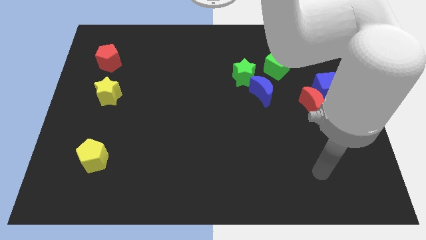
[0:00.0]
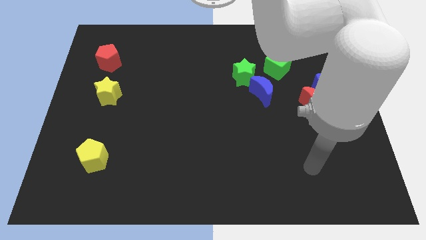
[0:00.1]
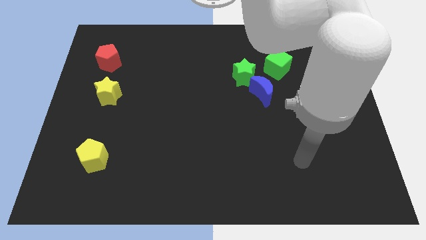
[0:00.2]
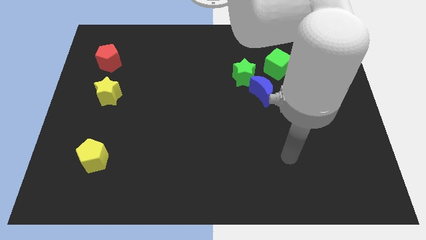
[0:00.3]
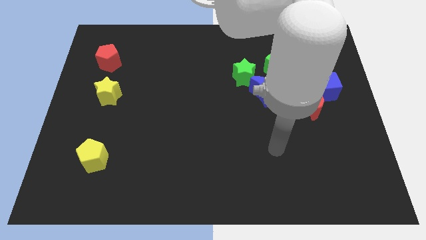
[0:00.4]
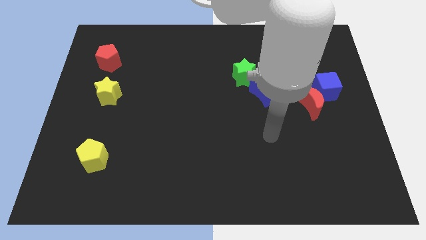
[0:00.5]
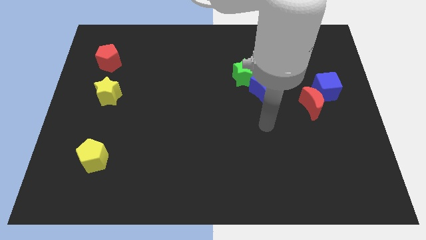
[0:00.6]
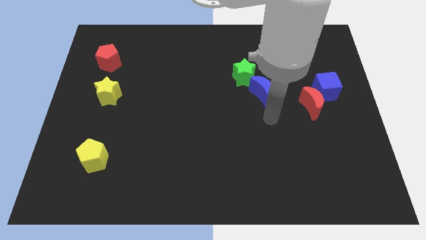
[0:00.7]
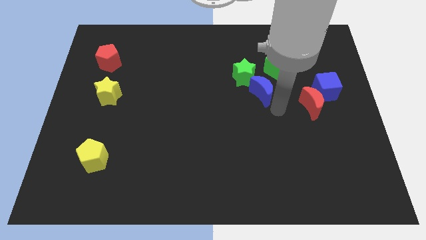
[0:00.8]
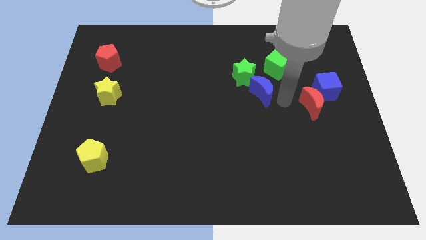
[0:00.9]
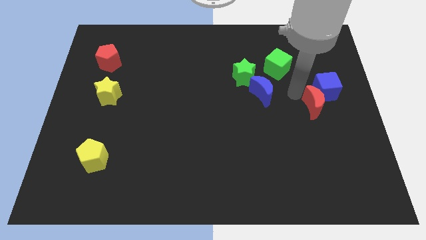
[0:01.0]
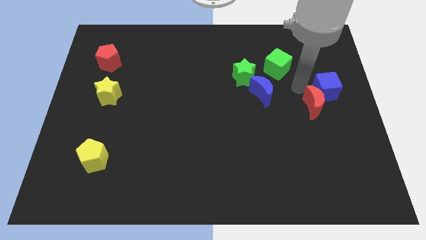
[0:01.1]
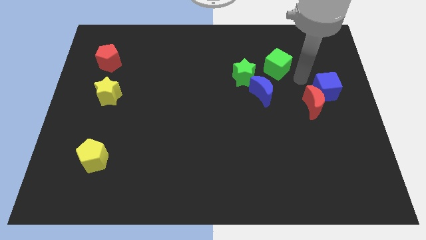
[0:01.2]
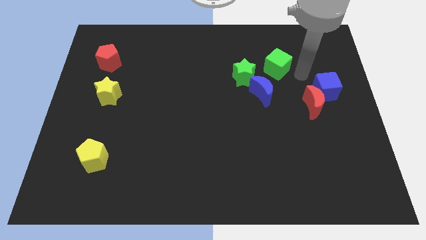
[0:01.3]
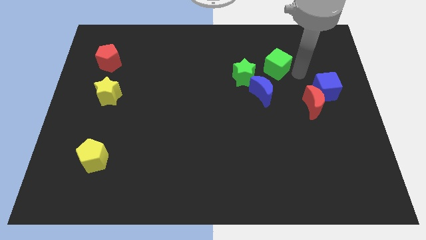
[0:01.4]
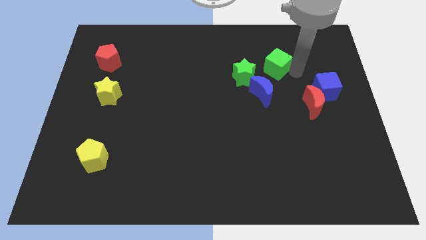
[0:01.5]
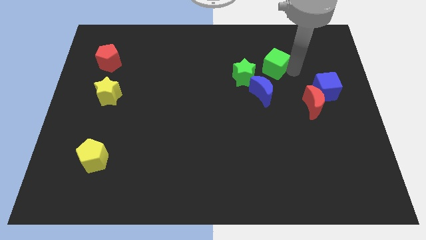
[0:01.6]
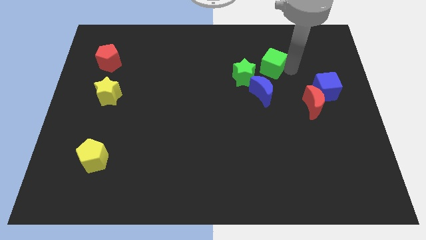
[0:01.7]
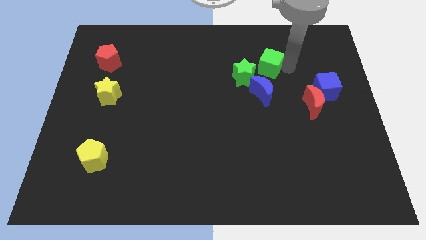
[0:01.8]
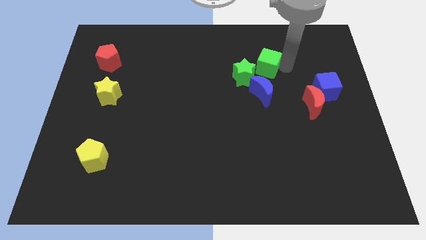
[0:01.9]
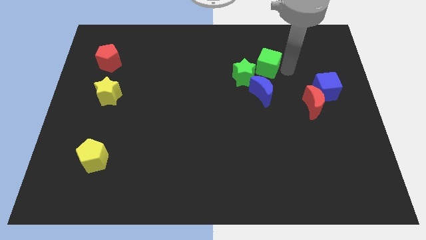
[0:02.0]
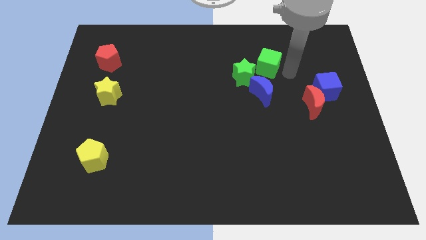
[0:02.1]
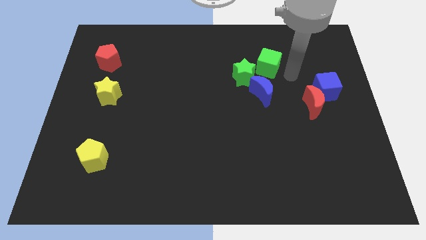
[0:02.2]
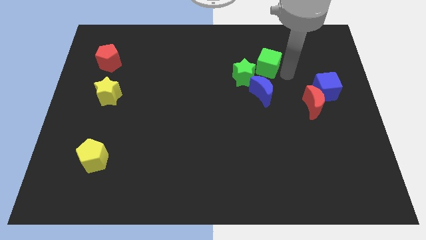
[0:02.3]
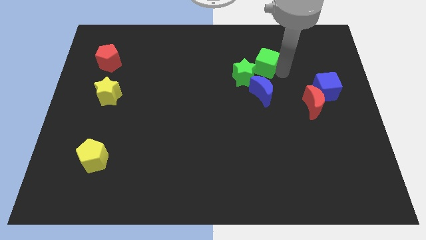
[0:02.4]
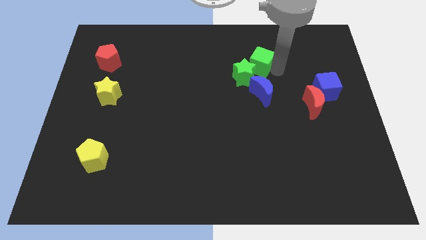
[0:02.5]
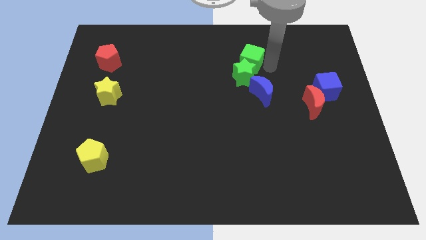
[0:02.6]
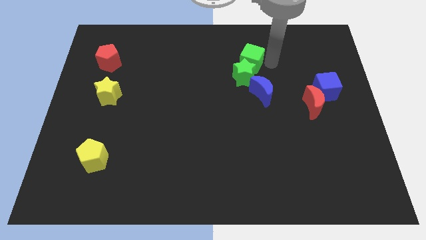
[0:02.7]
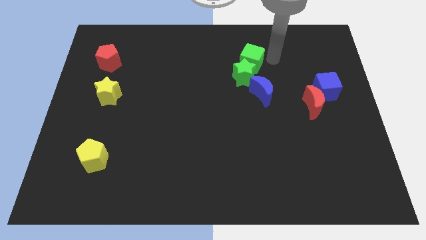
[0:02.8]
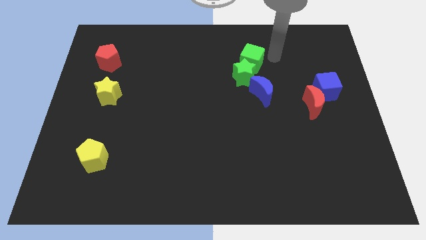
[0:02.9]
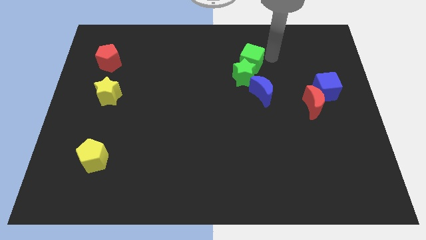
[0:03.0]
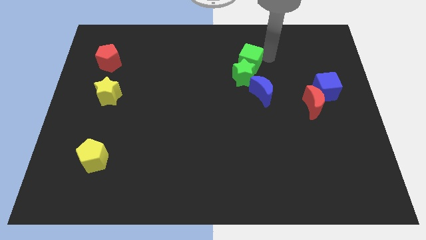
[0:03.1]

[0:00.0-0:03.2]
move the green cube a little to the left

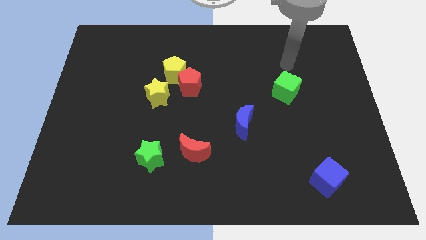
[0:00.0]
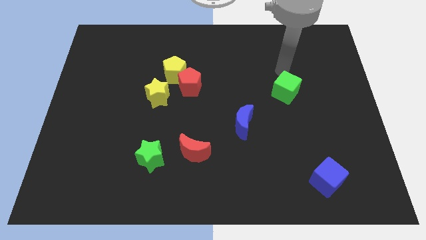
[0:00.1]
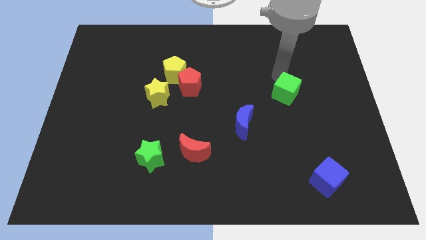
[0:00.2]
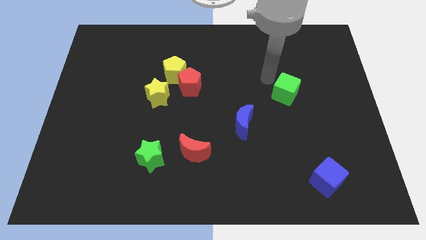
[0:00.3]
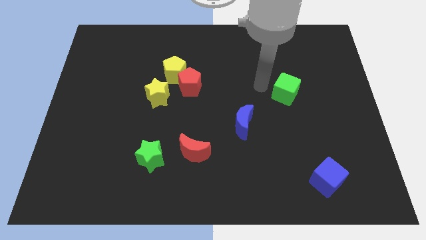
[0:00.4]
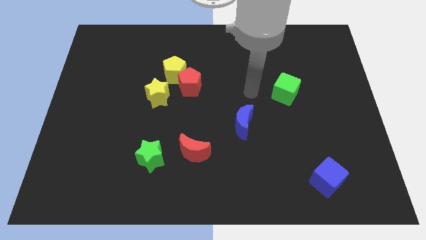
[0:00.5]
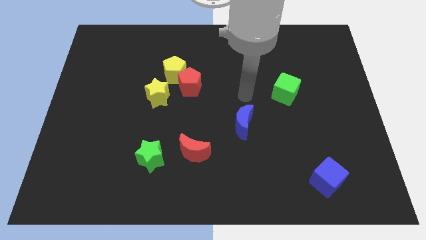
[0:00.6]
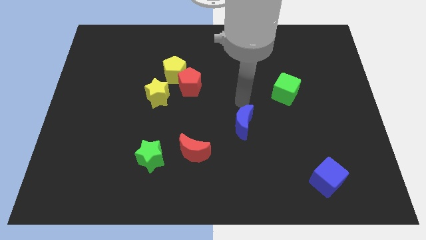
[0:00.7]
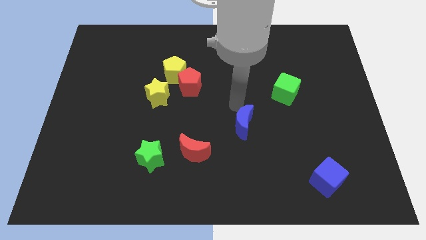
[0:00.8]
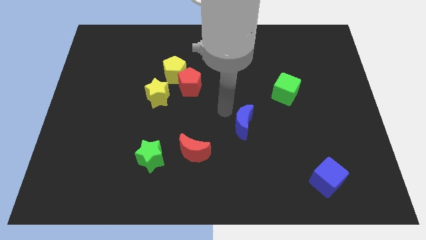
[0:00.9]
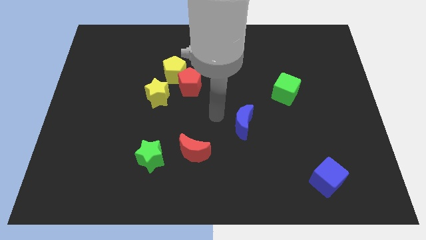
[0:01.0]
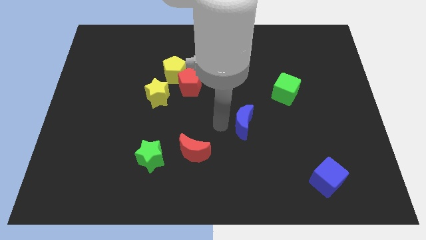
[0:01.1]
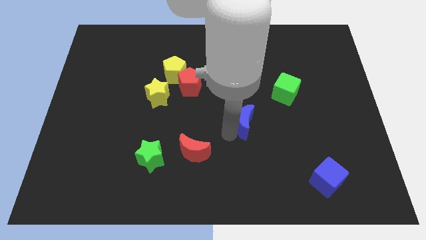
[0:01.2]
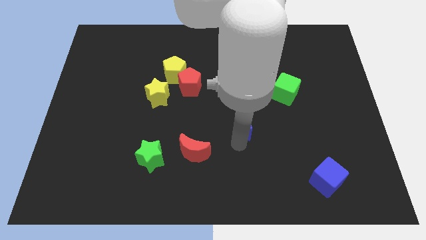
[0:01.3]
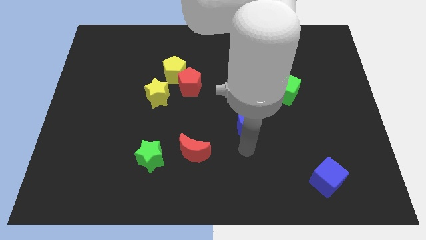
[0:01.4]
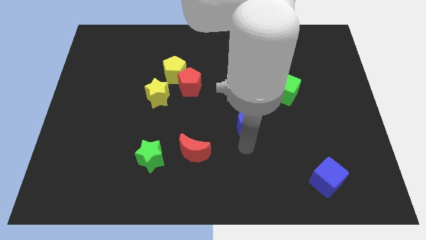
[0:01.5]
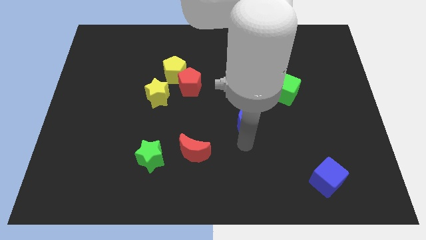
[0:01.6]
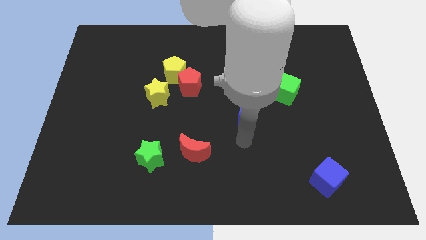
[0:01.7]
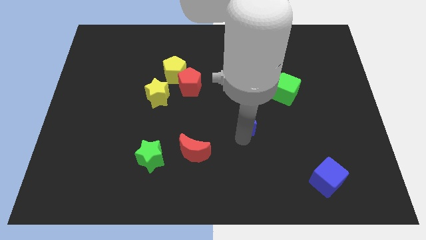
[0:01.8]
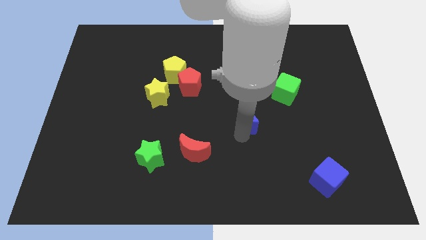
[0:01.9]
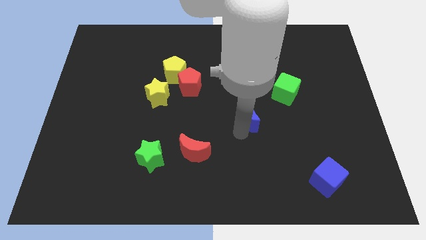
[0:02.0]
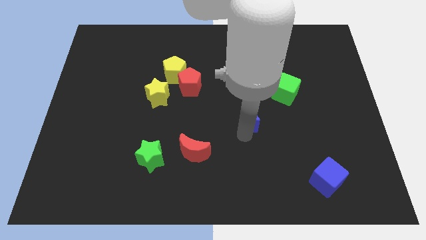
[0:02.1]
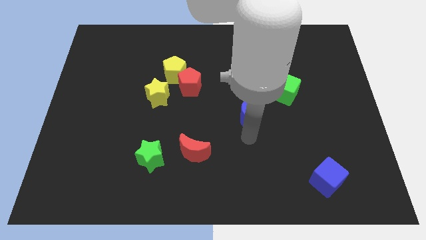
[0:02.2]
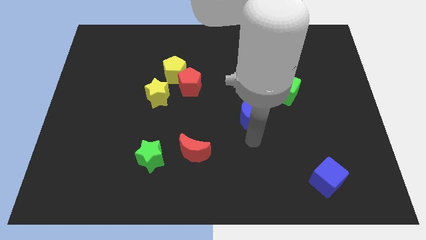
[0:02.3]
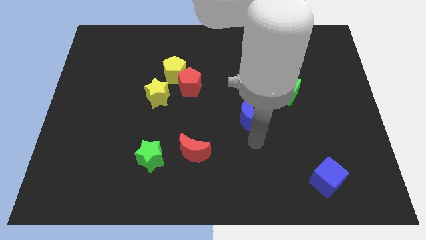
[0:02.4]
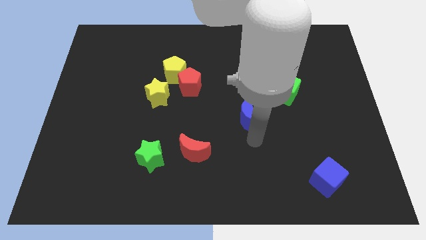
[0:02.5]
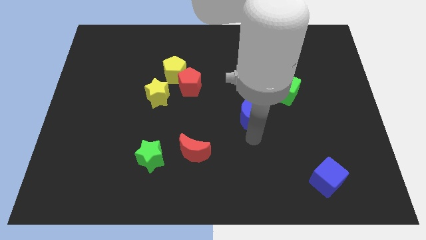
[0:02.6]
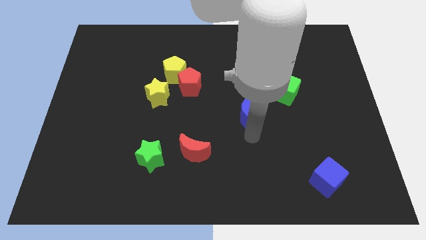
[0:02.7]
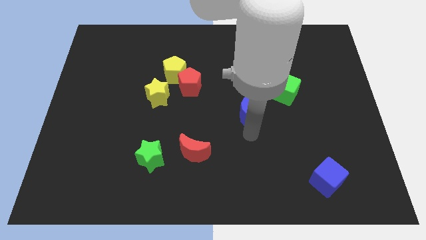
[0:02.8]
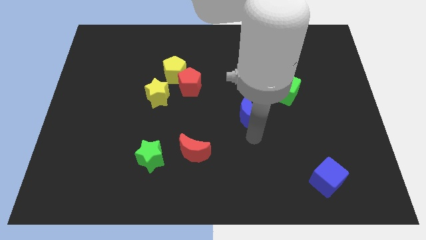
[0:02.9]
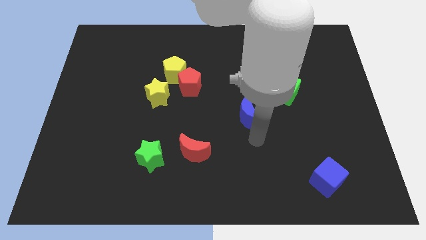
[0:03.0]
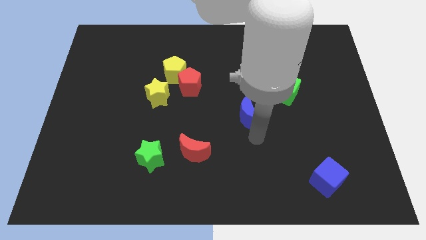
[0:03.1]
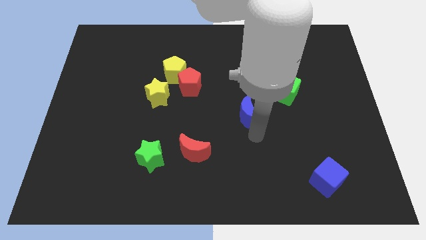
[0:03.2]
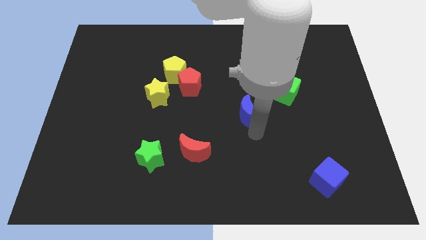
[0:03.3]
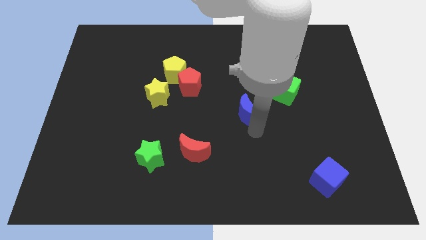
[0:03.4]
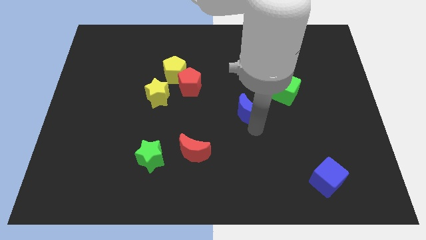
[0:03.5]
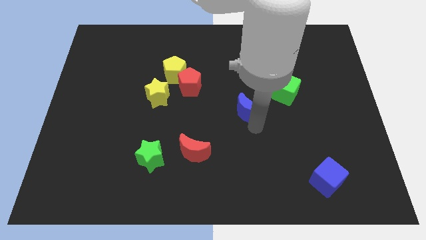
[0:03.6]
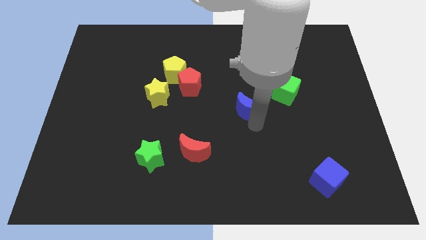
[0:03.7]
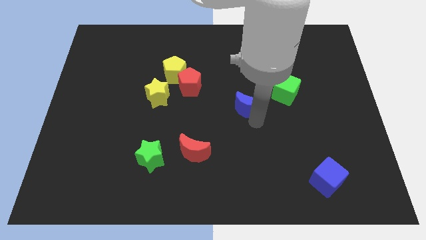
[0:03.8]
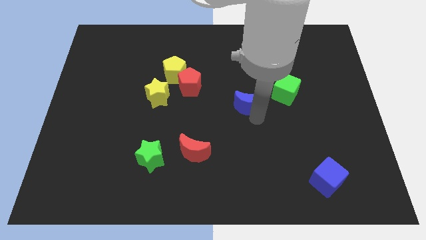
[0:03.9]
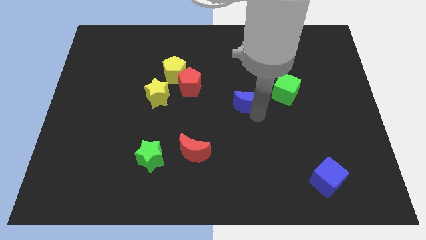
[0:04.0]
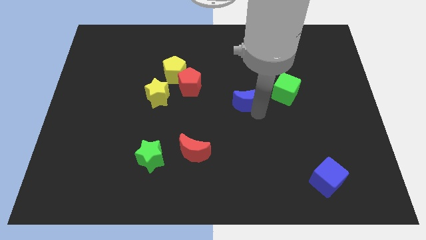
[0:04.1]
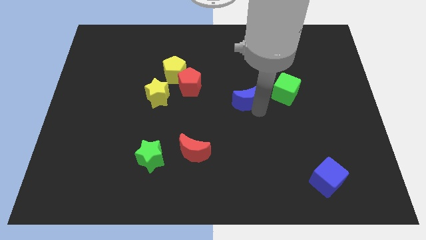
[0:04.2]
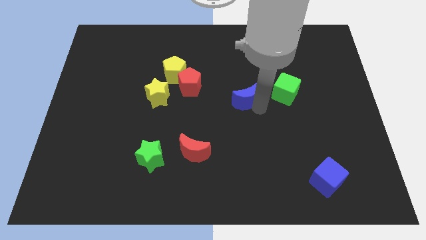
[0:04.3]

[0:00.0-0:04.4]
slightly move the blue moon upwards
